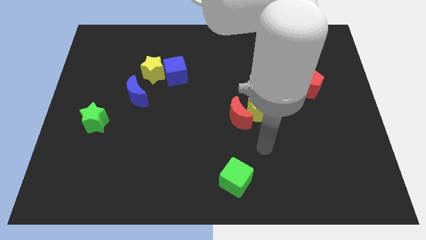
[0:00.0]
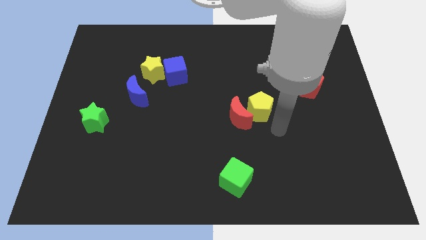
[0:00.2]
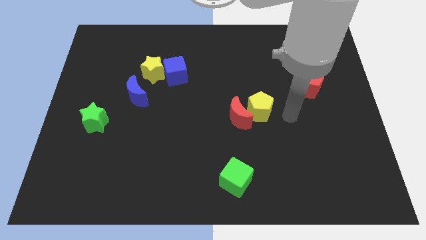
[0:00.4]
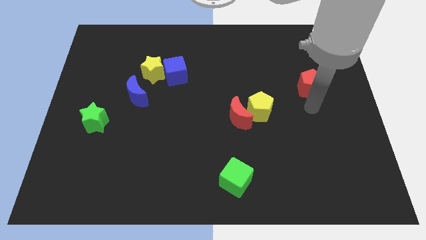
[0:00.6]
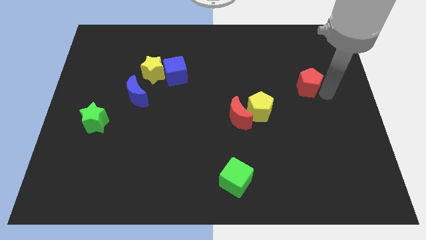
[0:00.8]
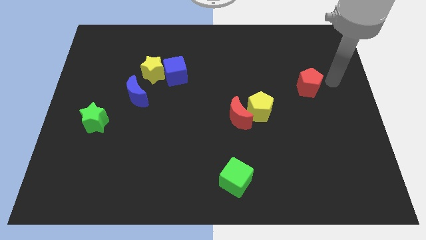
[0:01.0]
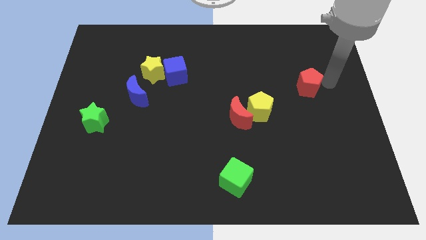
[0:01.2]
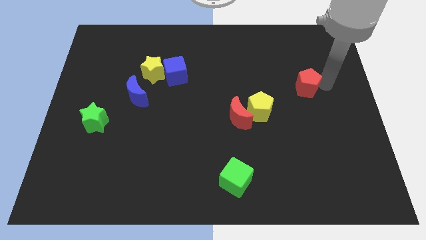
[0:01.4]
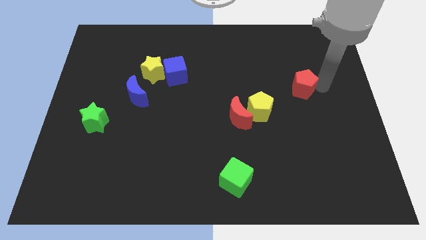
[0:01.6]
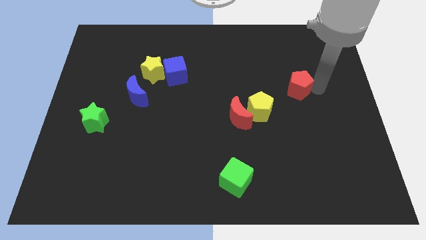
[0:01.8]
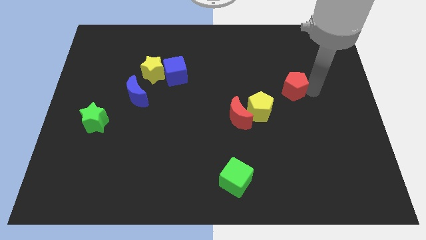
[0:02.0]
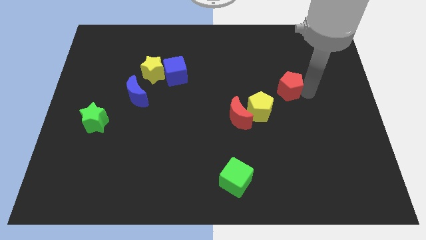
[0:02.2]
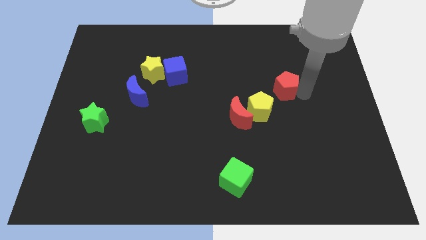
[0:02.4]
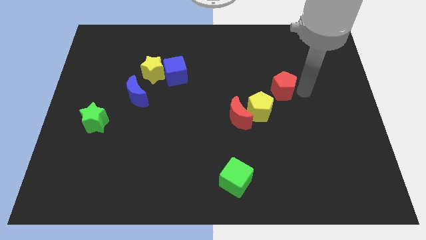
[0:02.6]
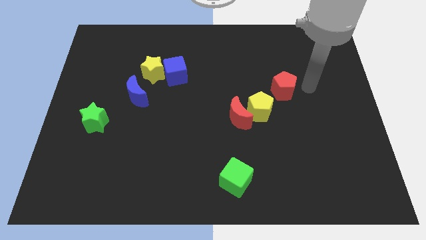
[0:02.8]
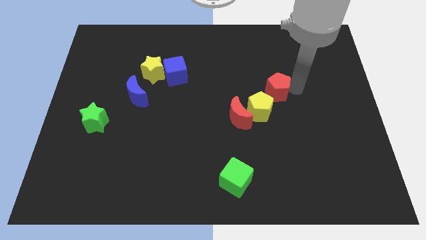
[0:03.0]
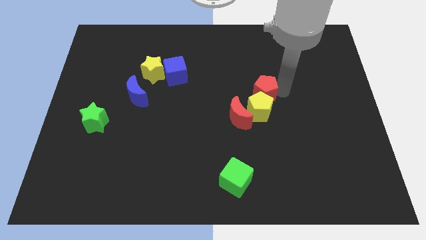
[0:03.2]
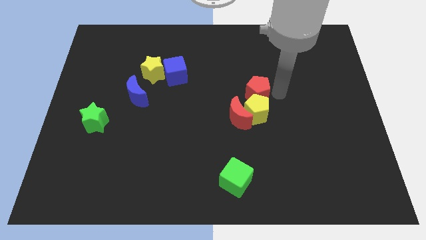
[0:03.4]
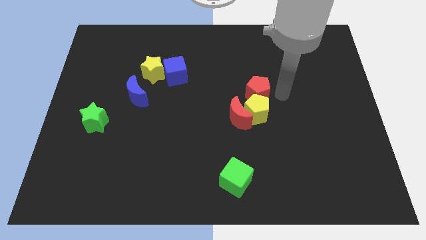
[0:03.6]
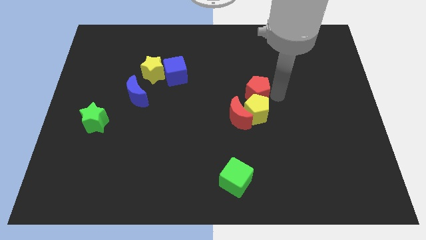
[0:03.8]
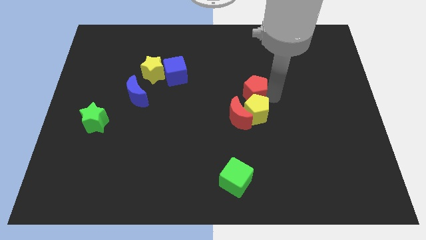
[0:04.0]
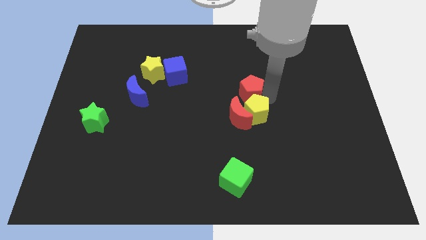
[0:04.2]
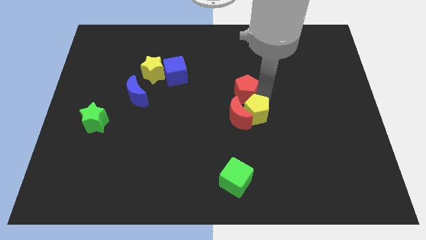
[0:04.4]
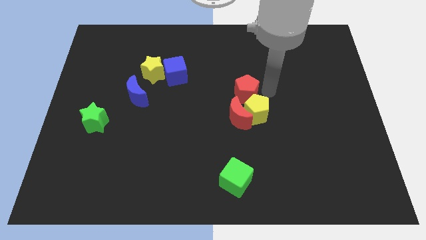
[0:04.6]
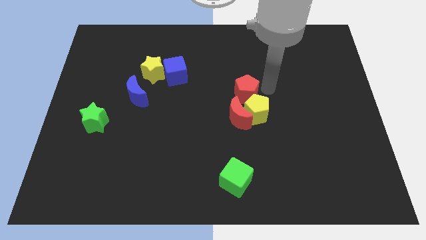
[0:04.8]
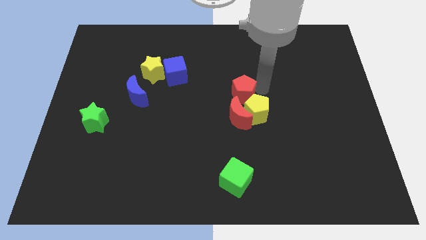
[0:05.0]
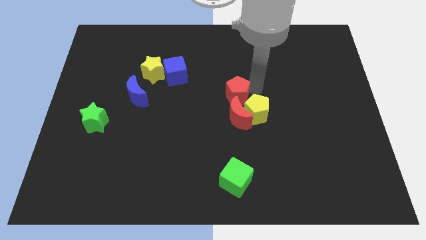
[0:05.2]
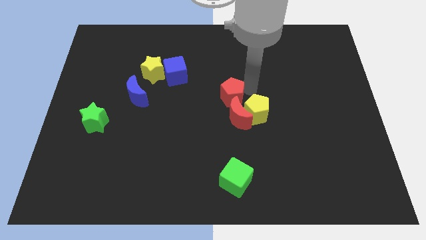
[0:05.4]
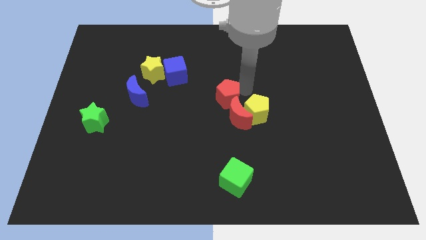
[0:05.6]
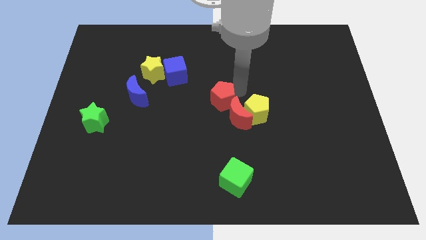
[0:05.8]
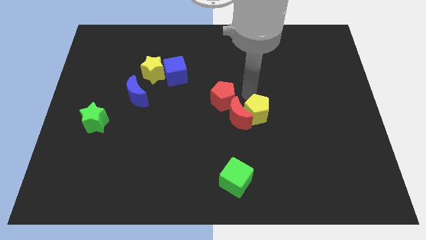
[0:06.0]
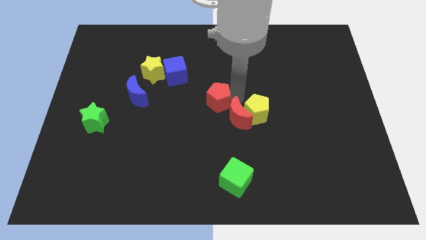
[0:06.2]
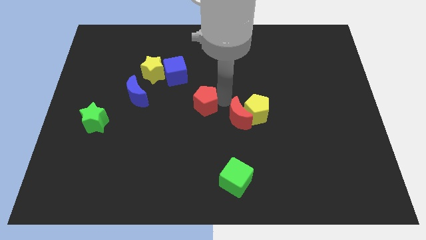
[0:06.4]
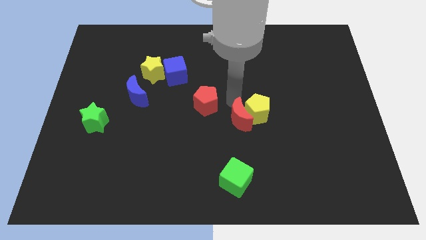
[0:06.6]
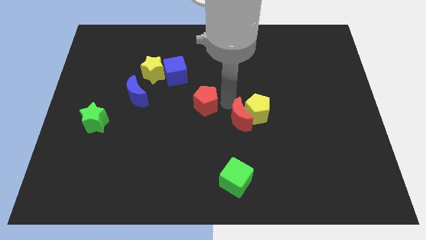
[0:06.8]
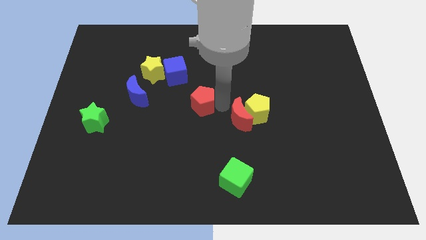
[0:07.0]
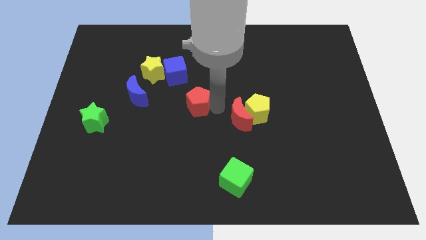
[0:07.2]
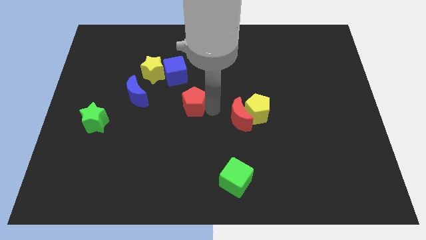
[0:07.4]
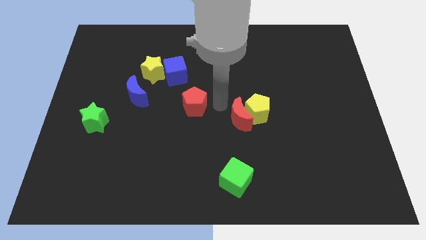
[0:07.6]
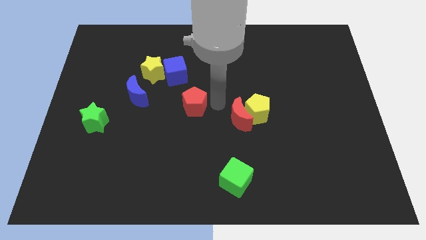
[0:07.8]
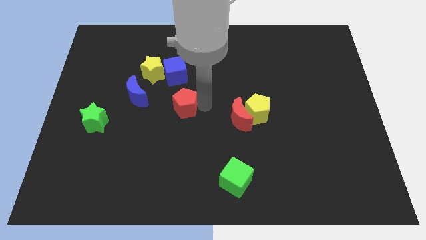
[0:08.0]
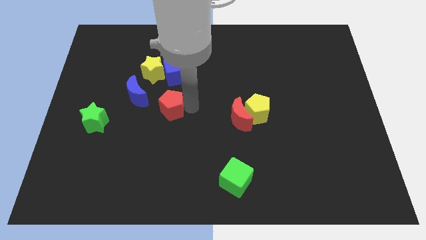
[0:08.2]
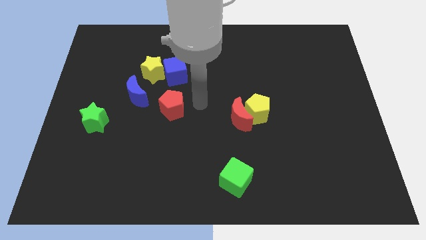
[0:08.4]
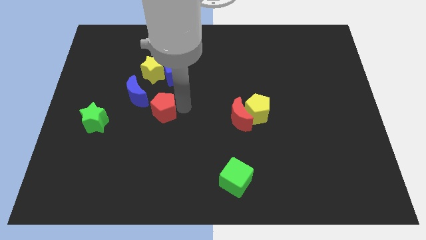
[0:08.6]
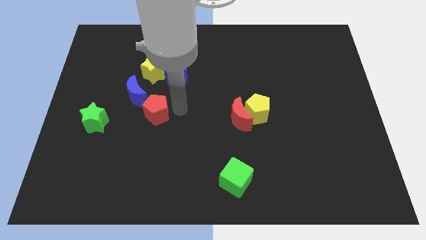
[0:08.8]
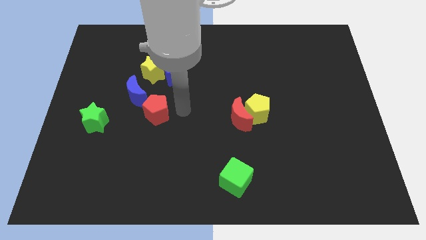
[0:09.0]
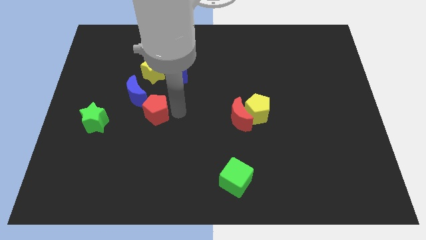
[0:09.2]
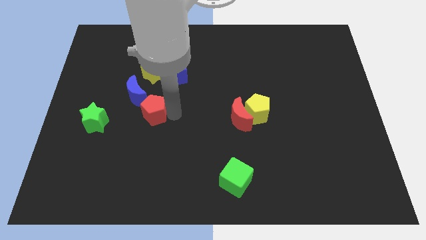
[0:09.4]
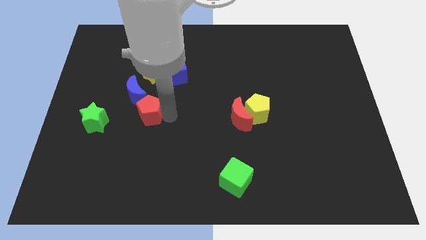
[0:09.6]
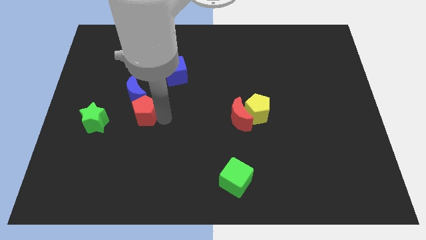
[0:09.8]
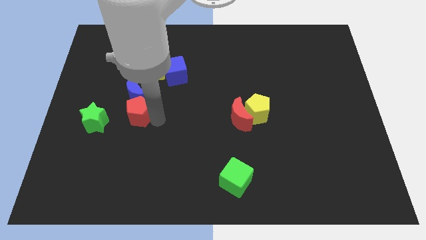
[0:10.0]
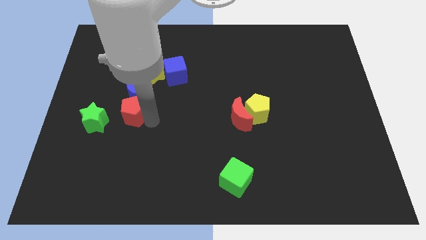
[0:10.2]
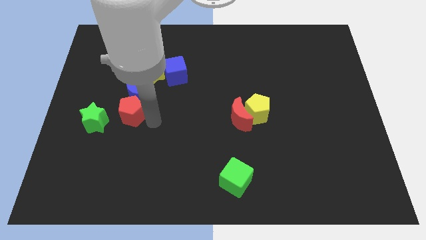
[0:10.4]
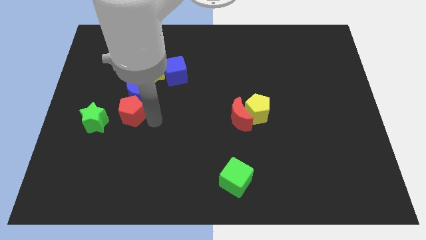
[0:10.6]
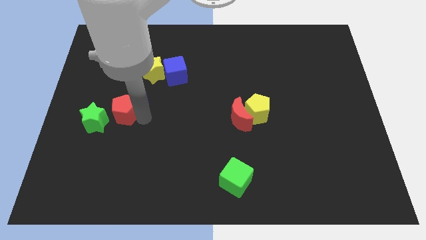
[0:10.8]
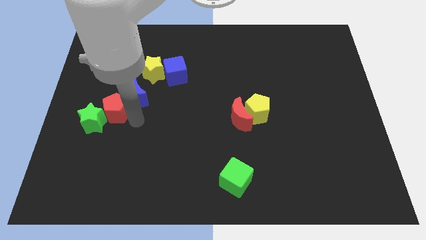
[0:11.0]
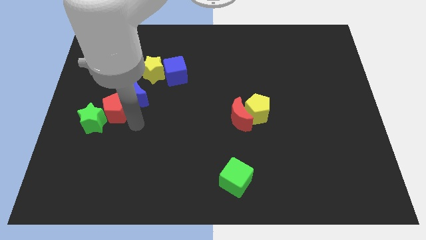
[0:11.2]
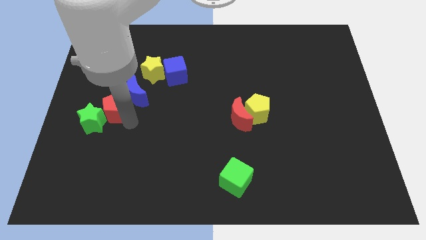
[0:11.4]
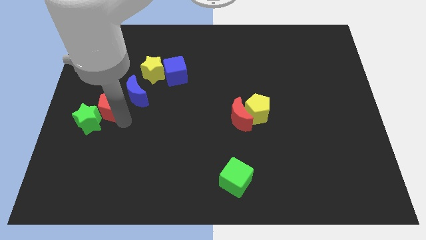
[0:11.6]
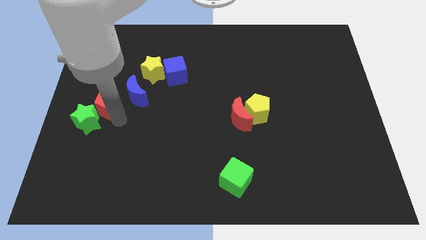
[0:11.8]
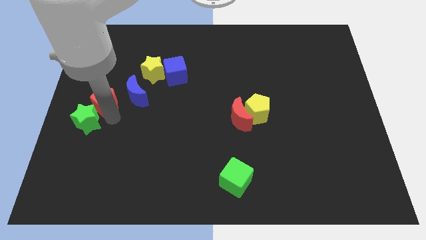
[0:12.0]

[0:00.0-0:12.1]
slide the red pentagon to the left side of the board
